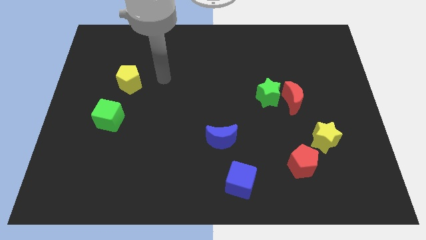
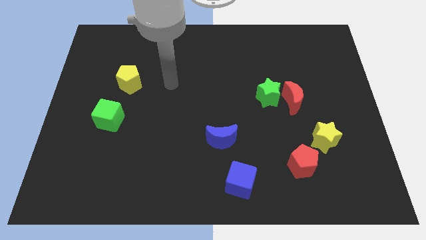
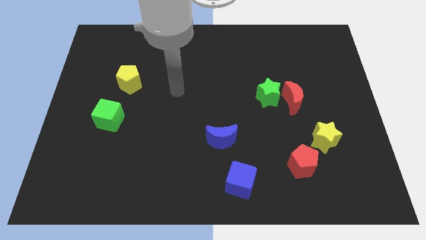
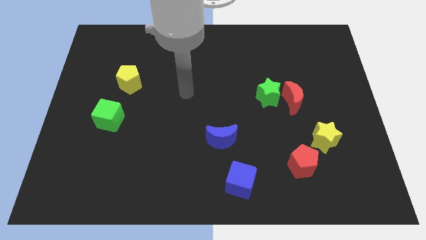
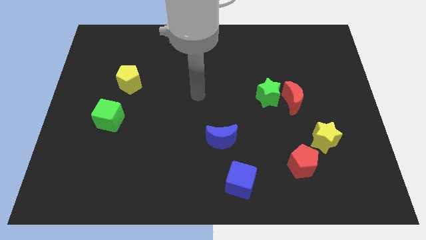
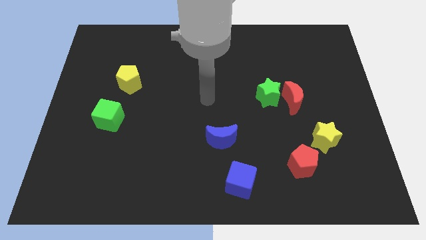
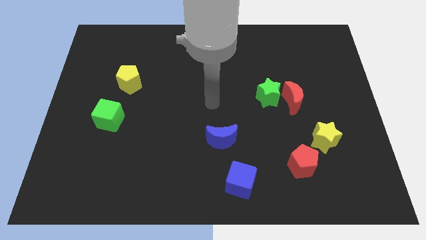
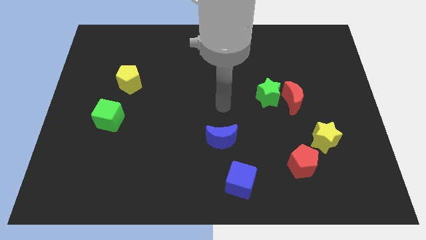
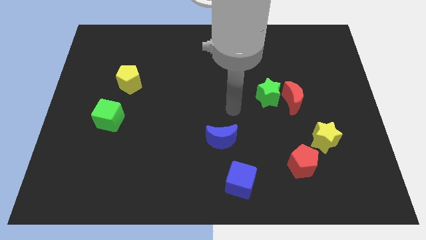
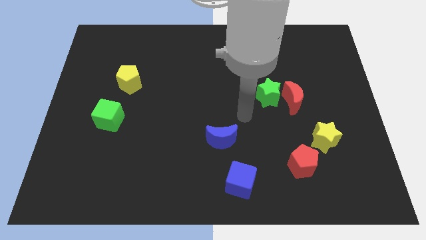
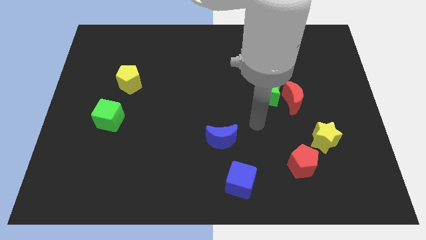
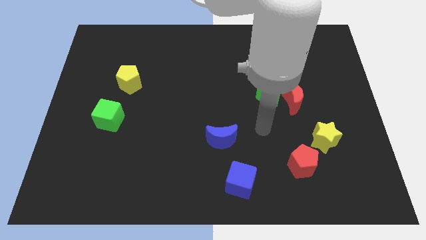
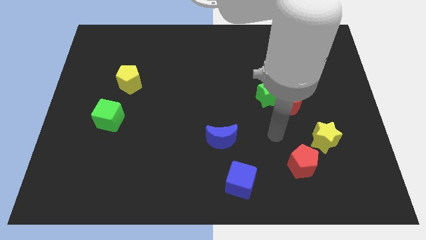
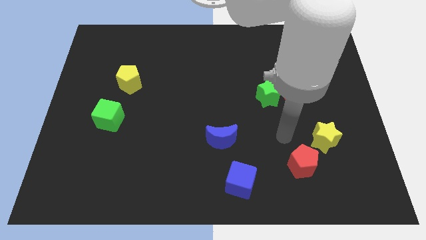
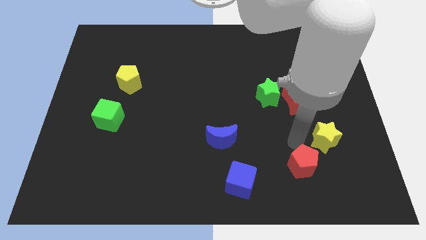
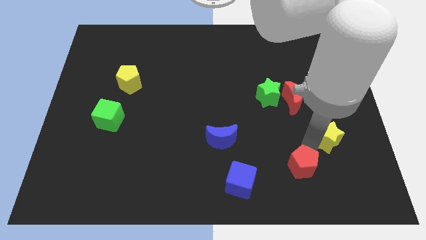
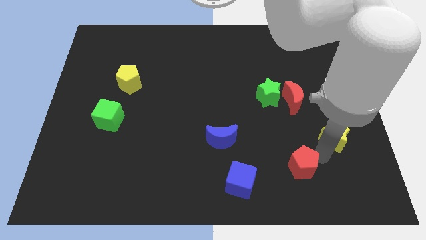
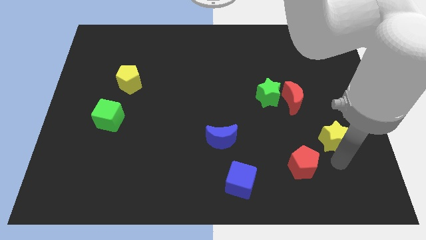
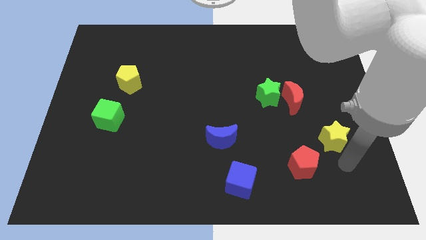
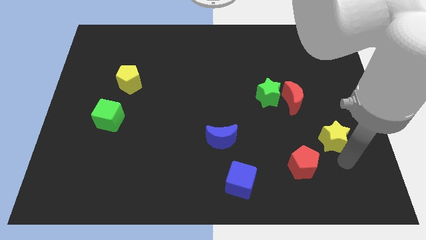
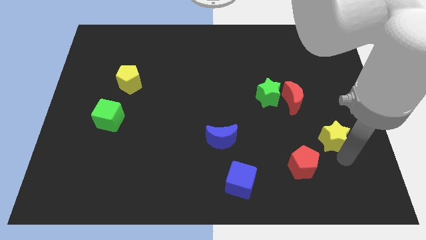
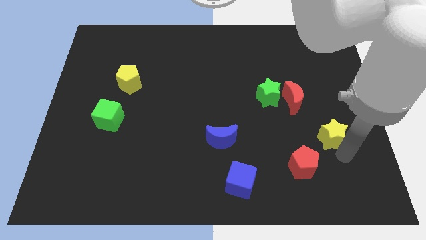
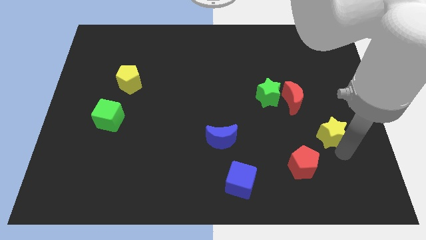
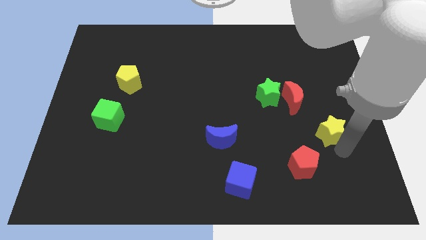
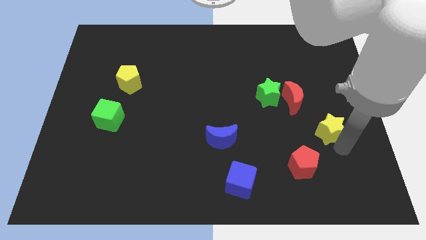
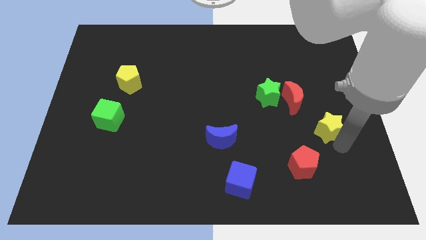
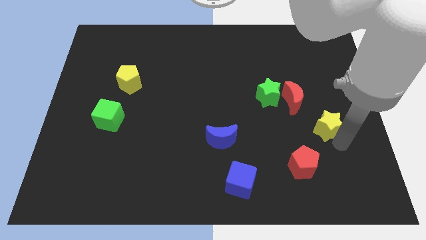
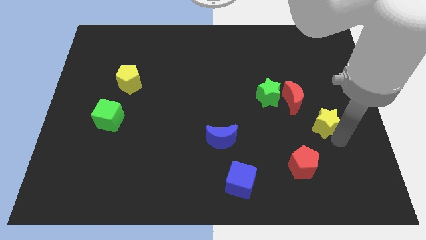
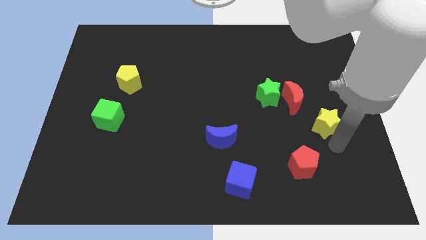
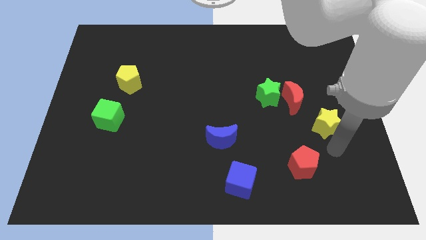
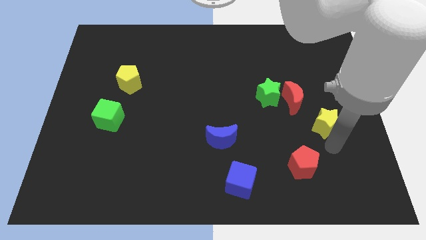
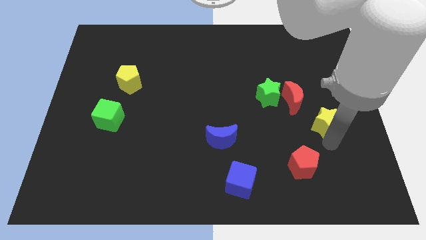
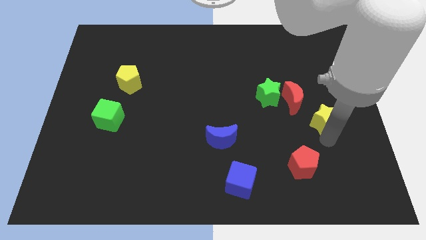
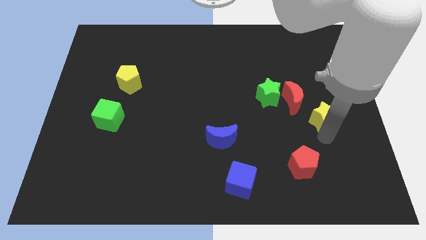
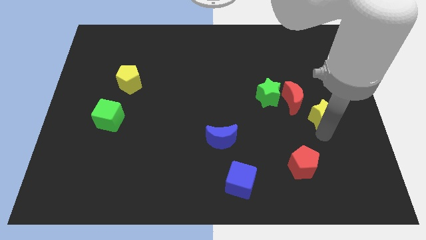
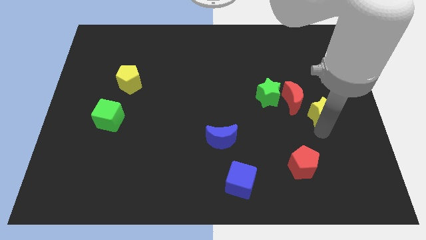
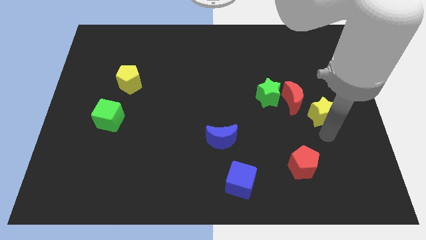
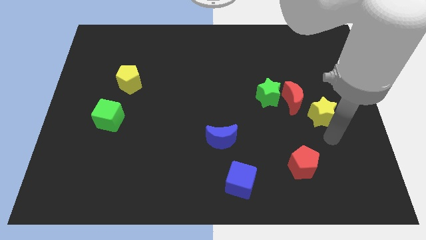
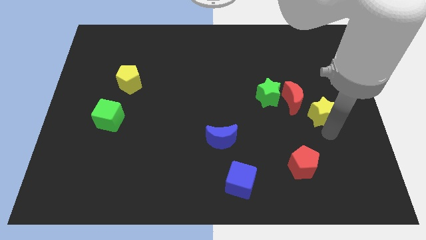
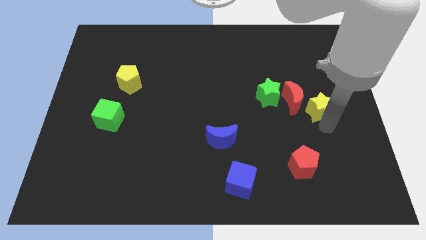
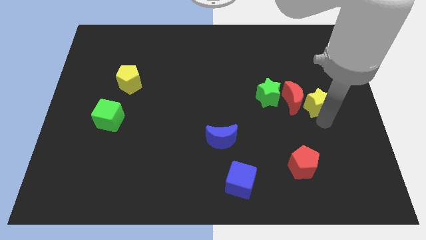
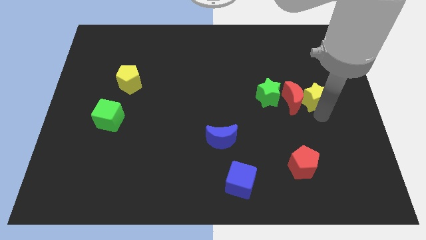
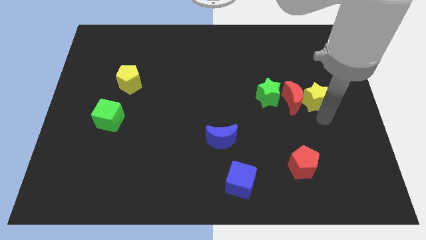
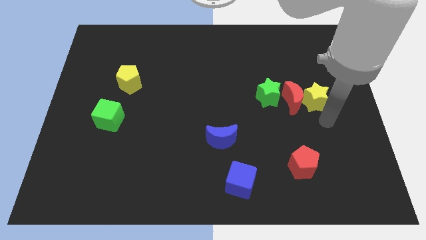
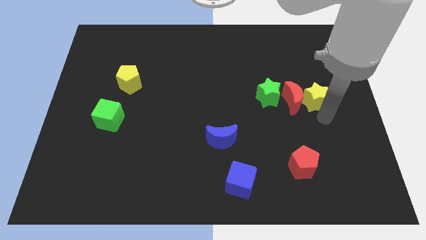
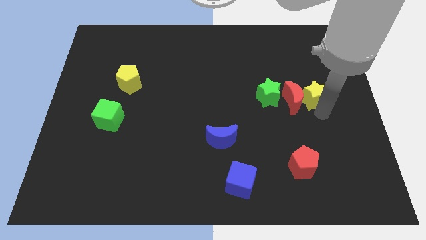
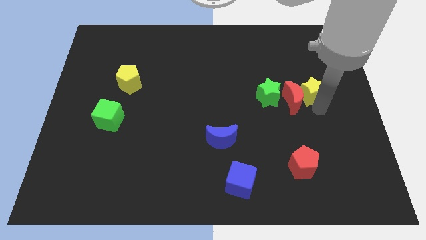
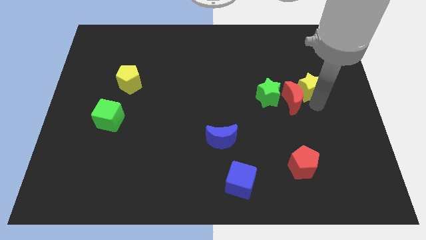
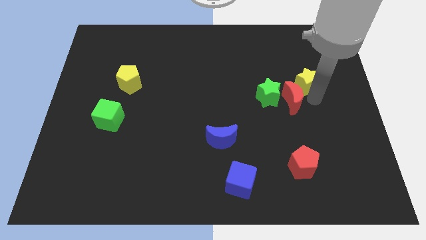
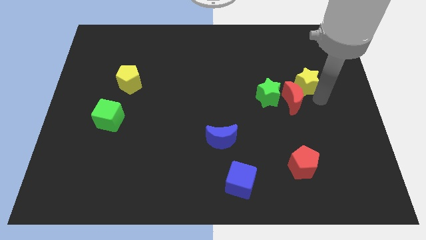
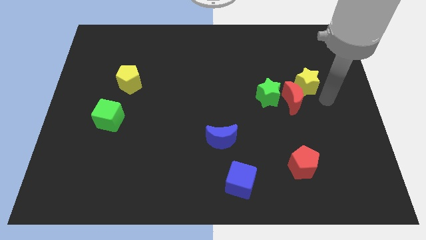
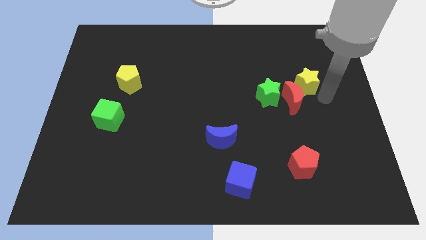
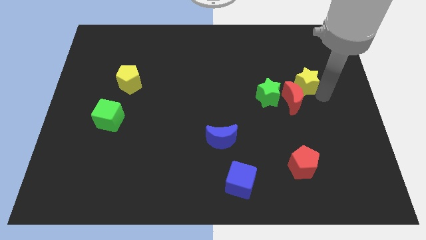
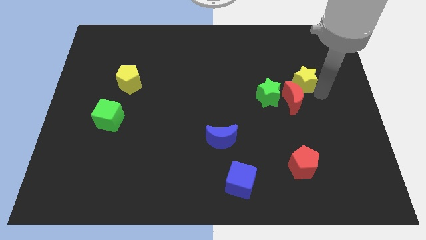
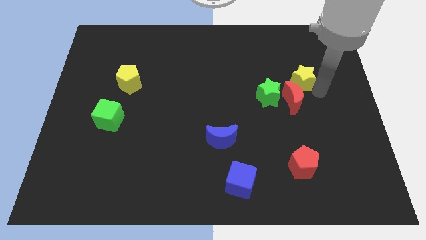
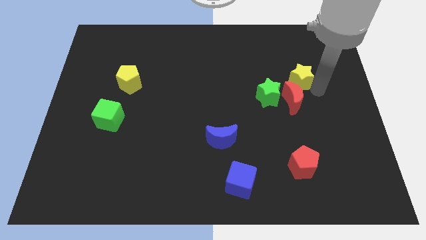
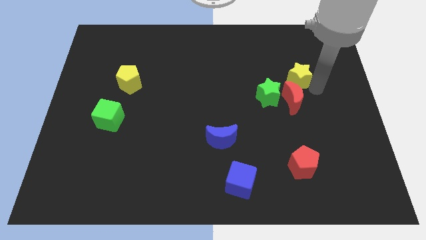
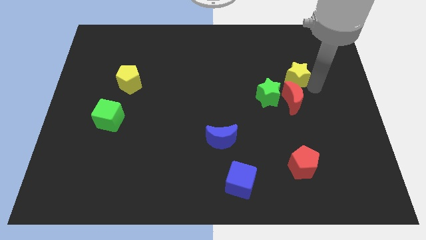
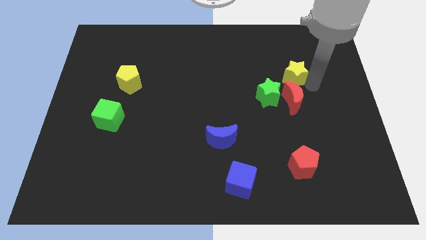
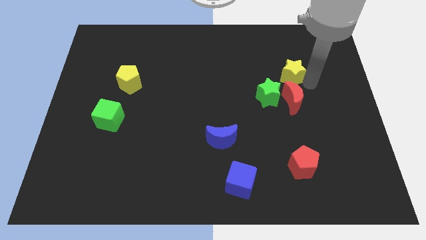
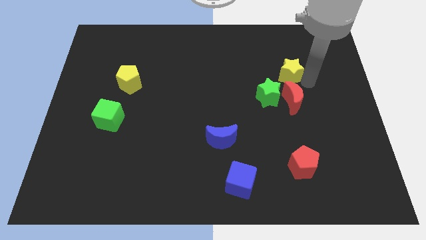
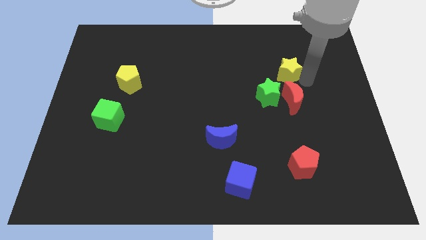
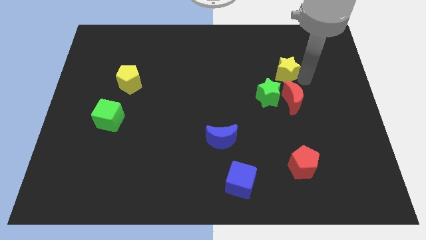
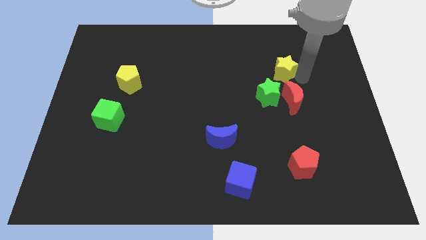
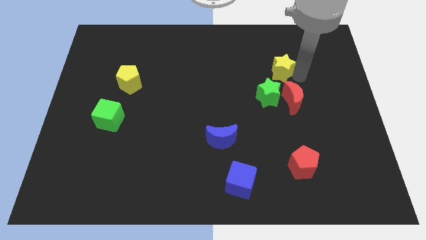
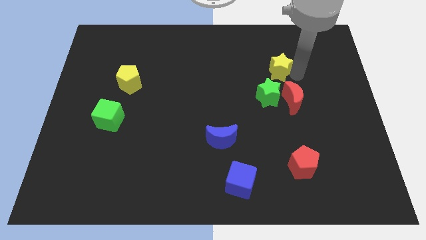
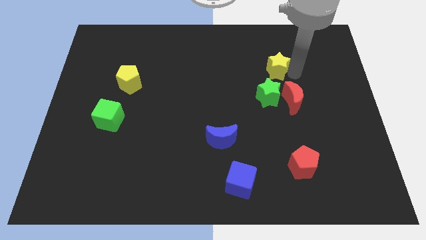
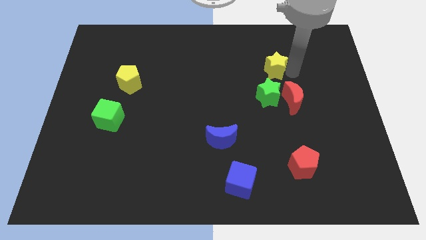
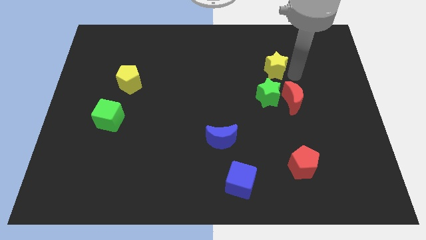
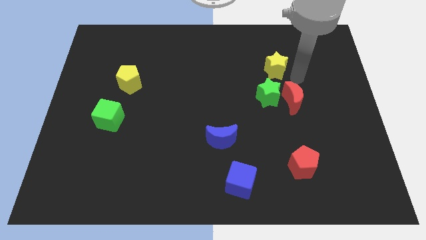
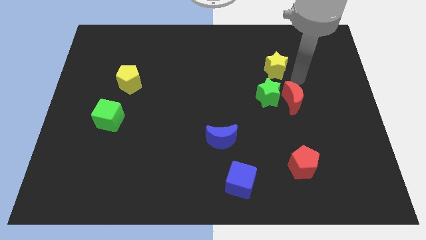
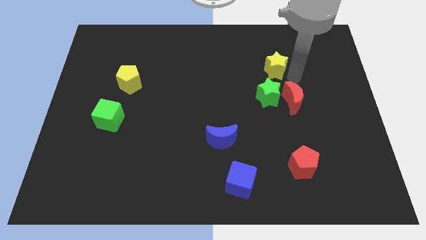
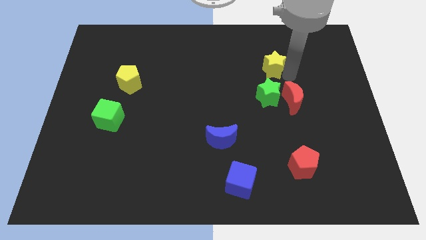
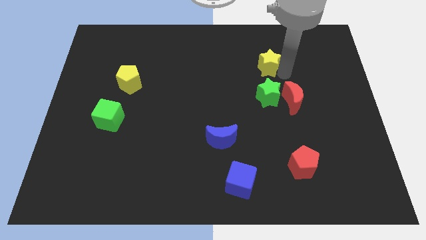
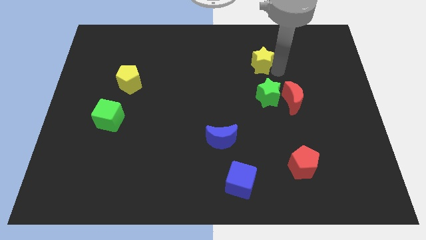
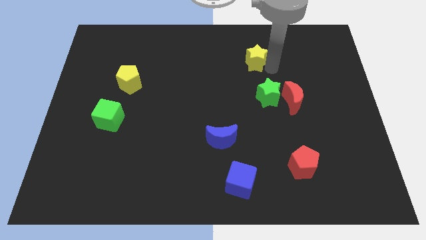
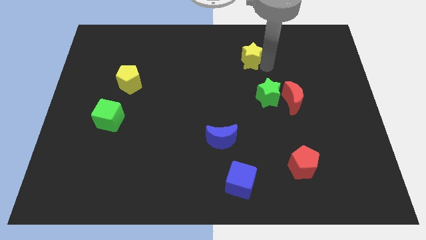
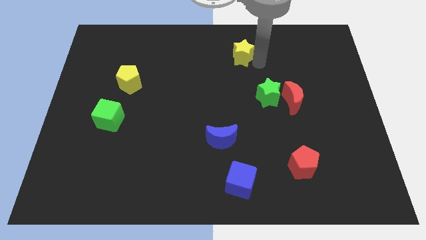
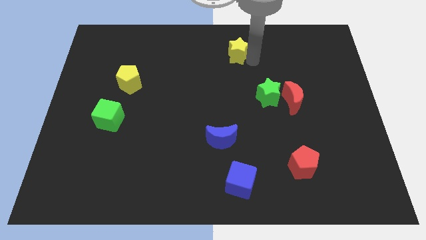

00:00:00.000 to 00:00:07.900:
move the yellow star to the top
